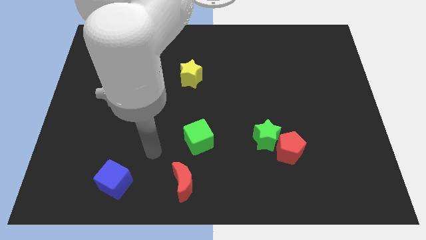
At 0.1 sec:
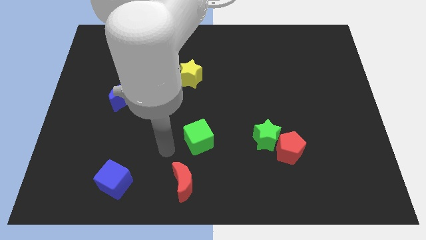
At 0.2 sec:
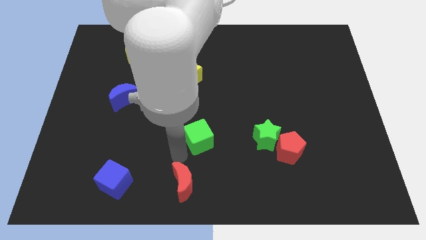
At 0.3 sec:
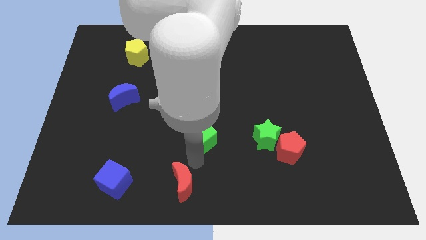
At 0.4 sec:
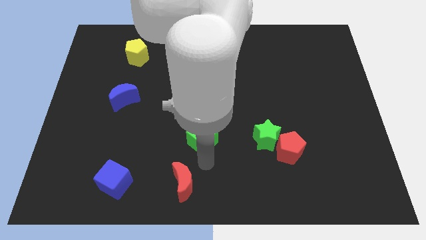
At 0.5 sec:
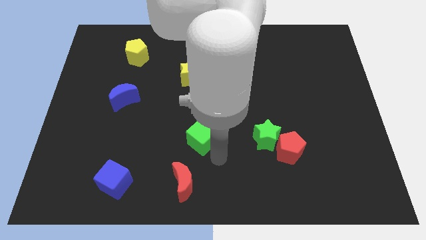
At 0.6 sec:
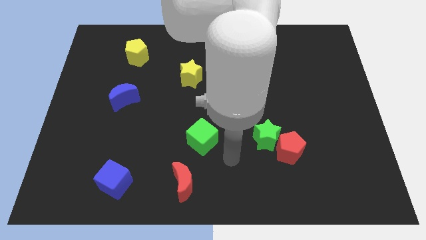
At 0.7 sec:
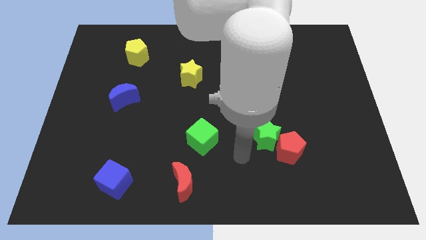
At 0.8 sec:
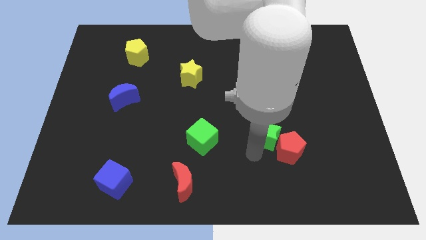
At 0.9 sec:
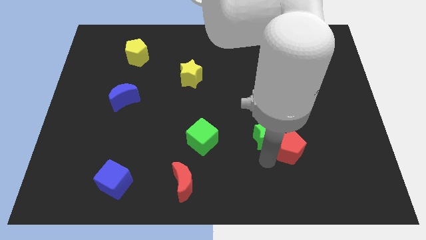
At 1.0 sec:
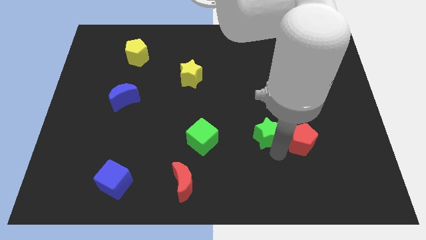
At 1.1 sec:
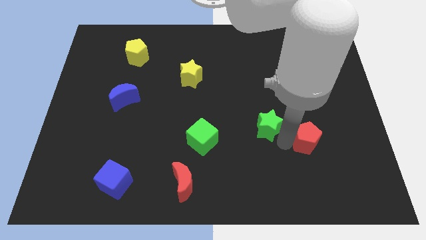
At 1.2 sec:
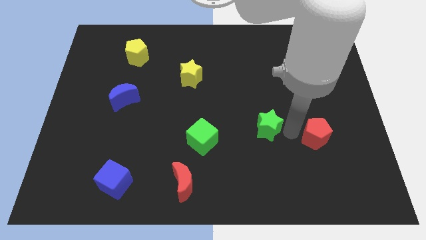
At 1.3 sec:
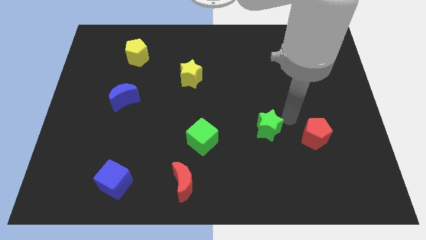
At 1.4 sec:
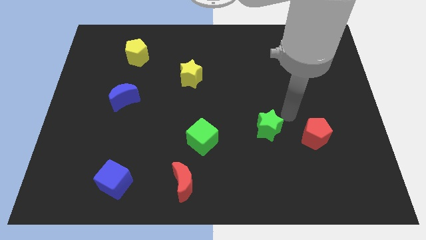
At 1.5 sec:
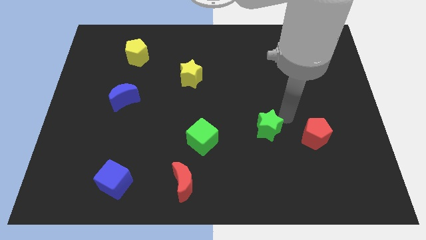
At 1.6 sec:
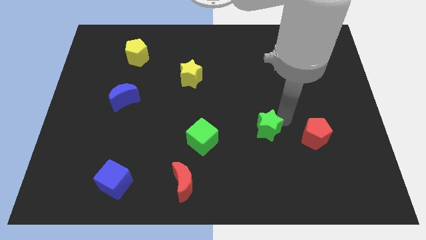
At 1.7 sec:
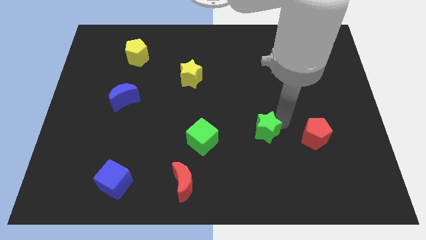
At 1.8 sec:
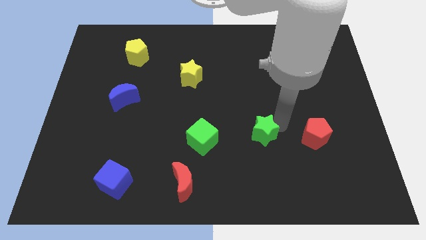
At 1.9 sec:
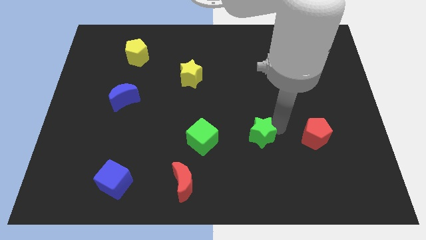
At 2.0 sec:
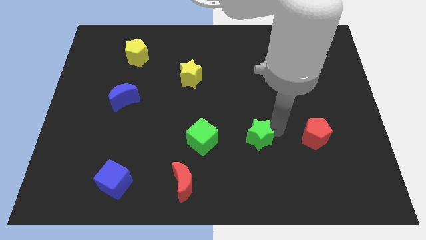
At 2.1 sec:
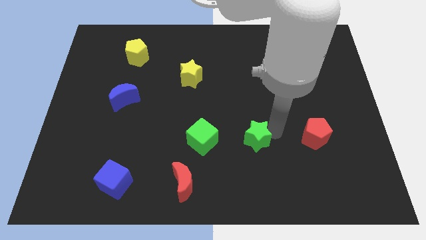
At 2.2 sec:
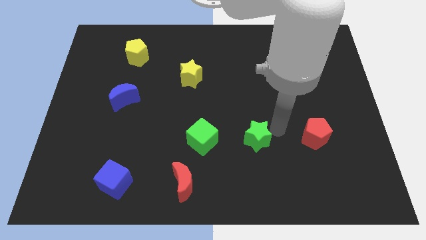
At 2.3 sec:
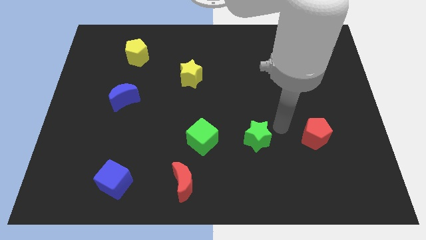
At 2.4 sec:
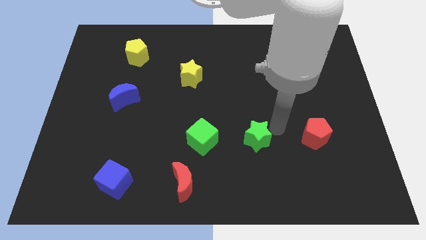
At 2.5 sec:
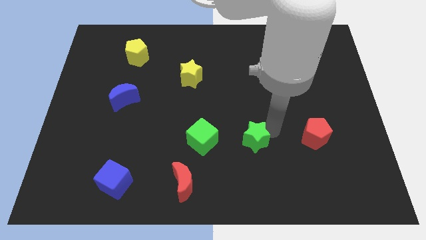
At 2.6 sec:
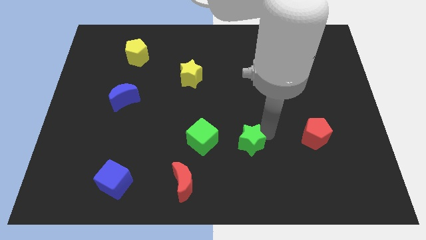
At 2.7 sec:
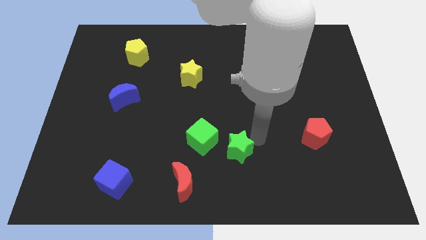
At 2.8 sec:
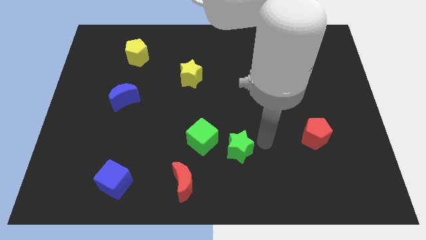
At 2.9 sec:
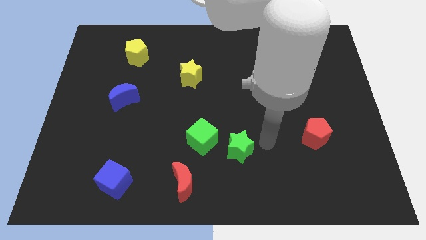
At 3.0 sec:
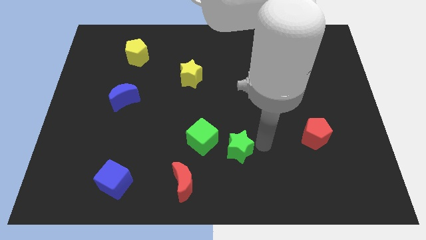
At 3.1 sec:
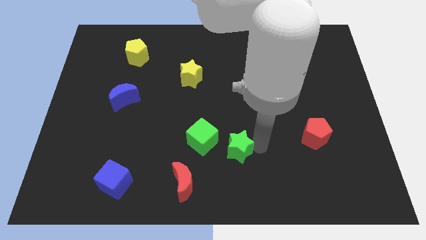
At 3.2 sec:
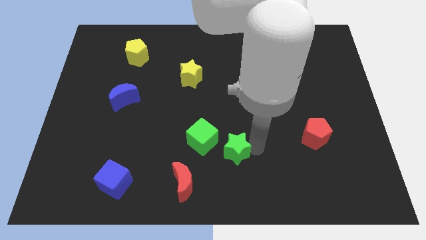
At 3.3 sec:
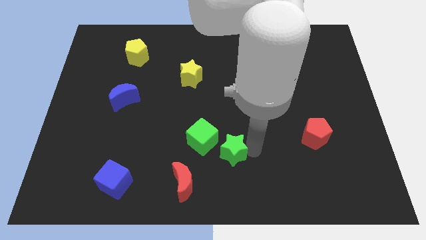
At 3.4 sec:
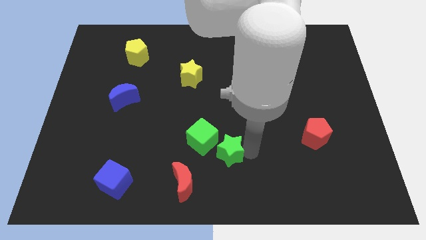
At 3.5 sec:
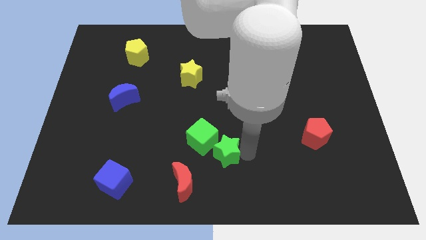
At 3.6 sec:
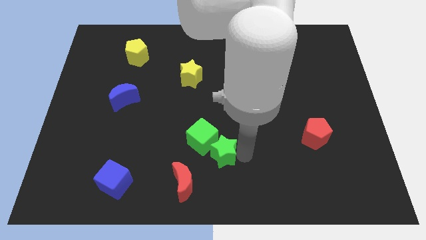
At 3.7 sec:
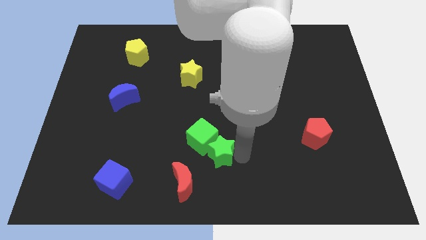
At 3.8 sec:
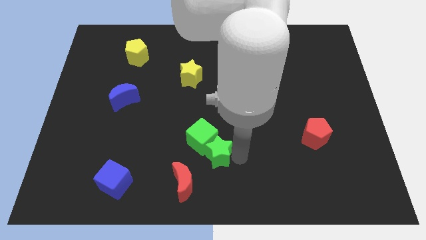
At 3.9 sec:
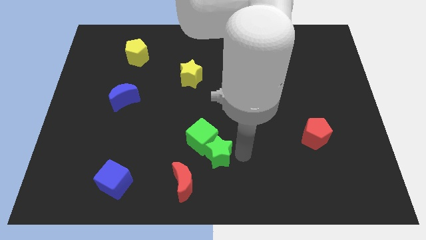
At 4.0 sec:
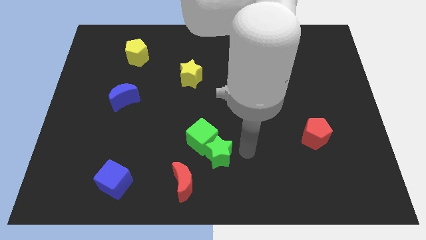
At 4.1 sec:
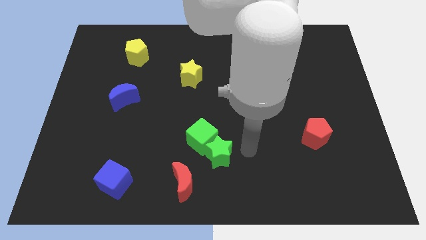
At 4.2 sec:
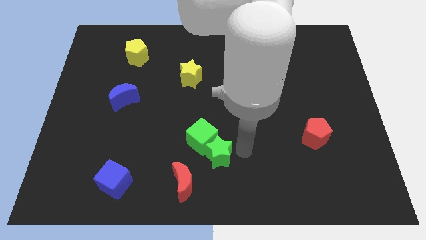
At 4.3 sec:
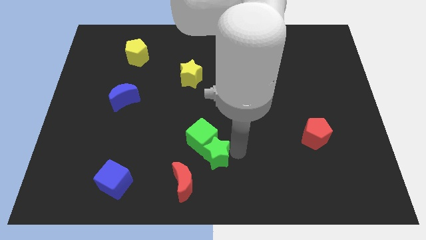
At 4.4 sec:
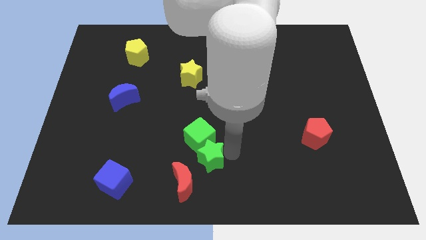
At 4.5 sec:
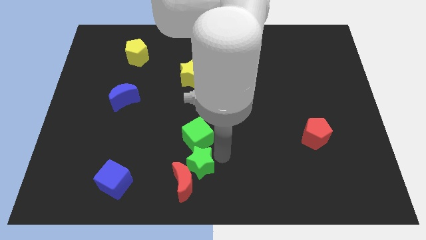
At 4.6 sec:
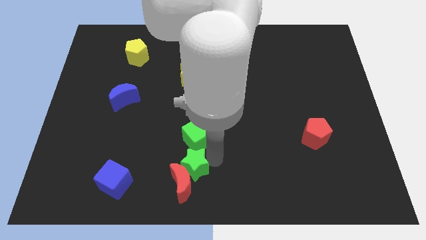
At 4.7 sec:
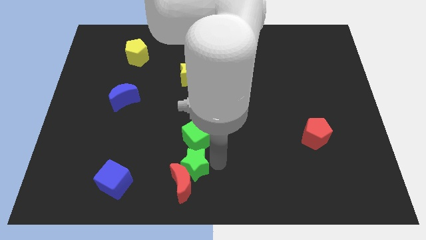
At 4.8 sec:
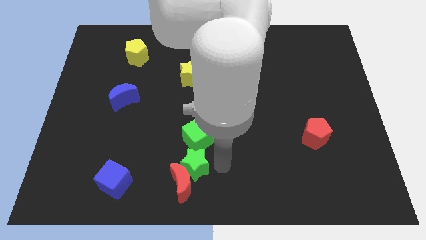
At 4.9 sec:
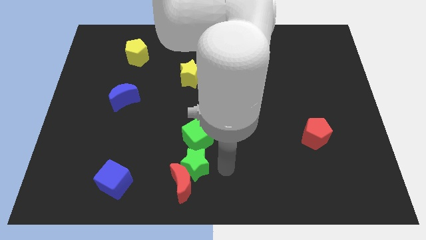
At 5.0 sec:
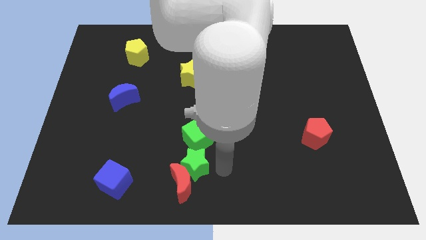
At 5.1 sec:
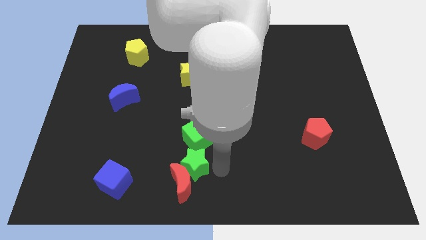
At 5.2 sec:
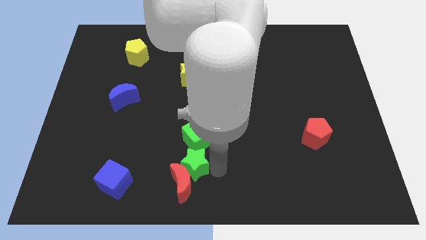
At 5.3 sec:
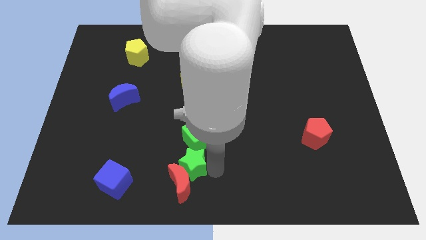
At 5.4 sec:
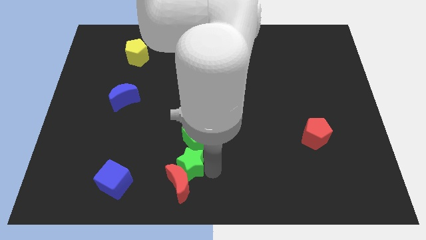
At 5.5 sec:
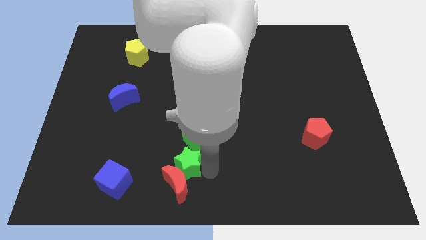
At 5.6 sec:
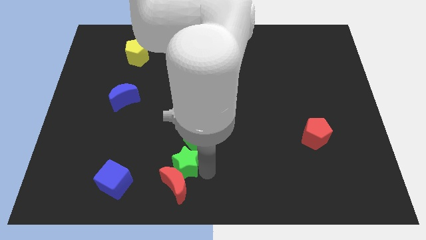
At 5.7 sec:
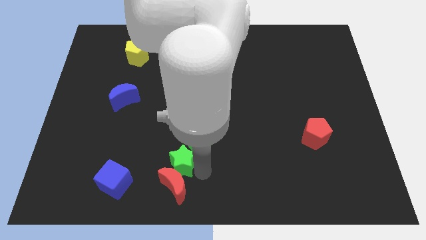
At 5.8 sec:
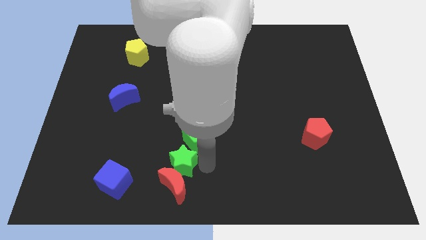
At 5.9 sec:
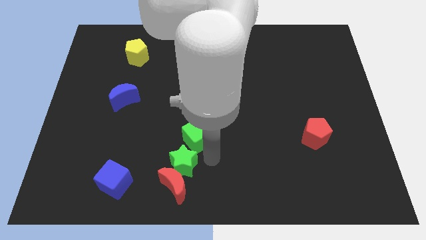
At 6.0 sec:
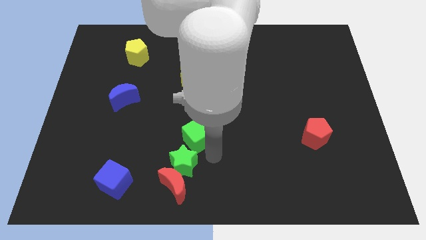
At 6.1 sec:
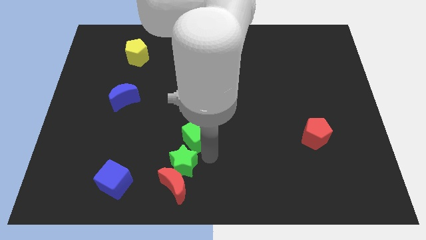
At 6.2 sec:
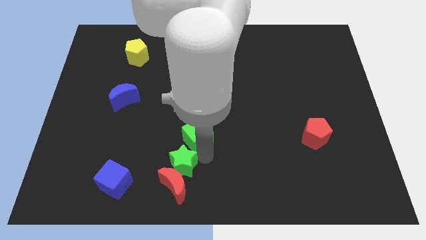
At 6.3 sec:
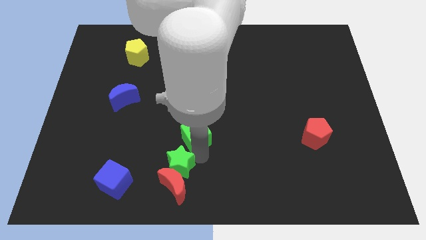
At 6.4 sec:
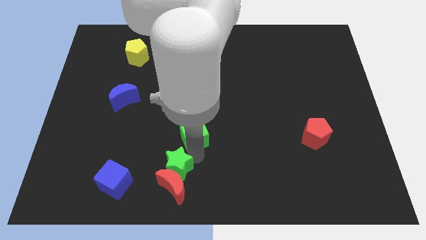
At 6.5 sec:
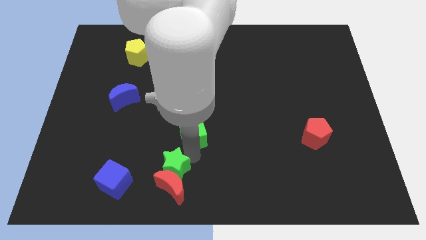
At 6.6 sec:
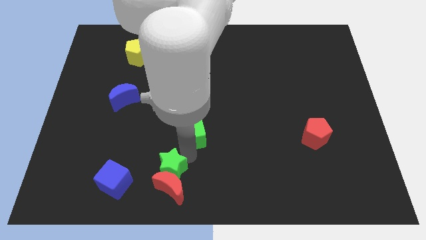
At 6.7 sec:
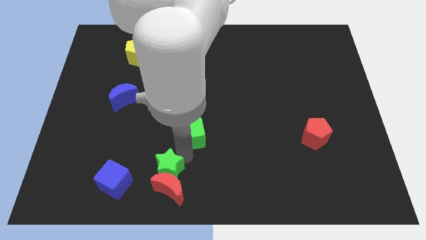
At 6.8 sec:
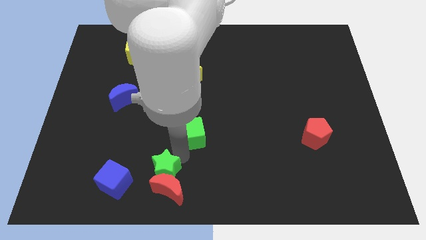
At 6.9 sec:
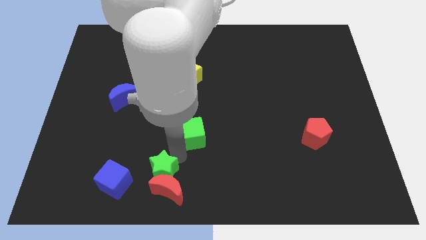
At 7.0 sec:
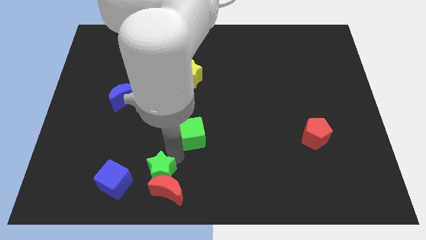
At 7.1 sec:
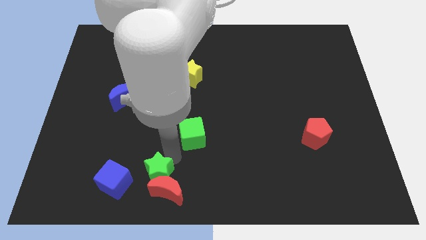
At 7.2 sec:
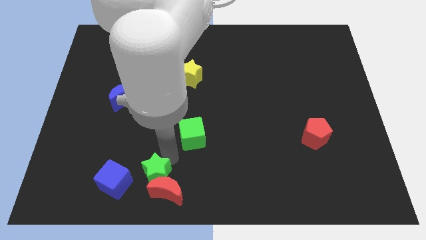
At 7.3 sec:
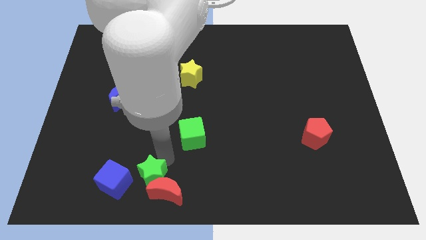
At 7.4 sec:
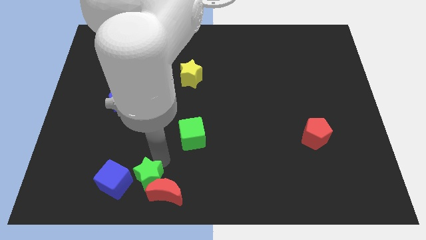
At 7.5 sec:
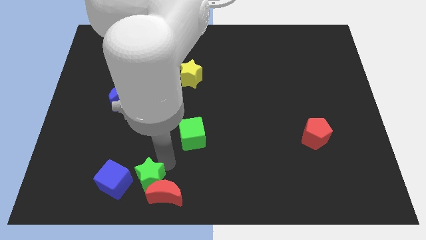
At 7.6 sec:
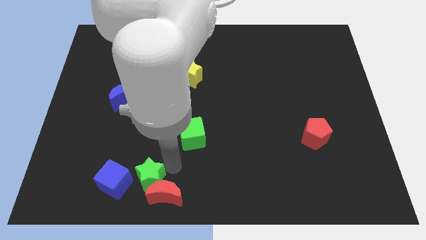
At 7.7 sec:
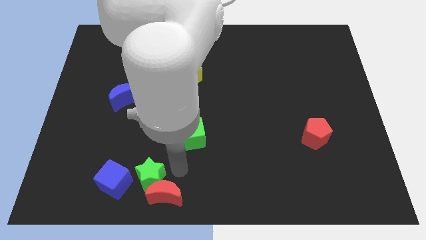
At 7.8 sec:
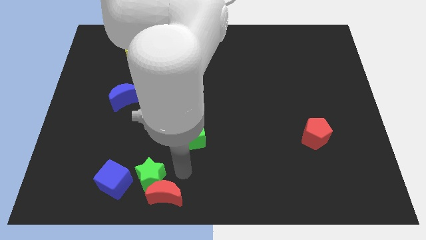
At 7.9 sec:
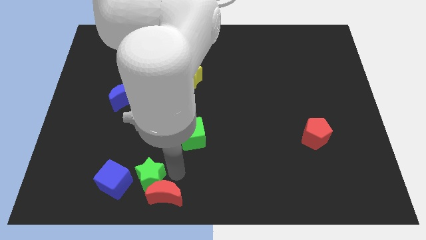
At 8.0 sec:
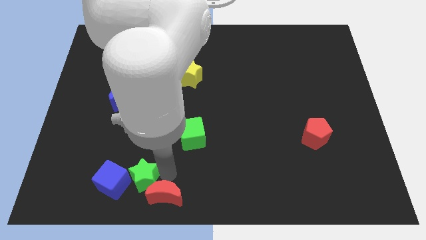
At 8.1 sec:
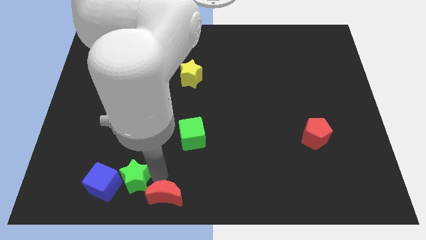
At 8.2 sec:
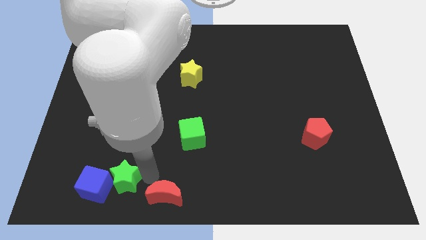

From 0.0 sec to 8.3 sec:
slide the green star next to the blue cube
